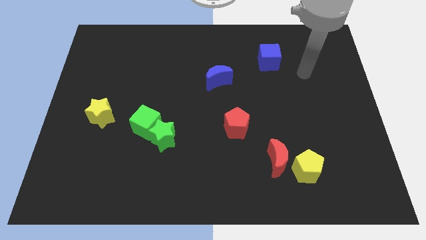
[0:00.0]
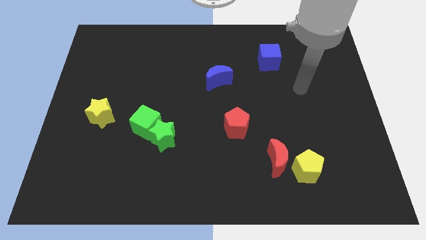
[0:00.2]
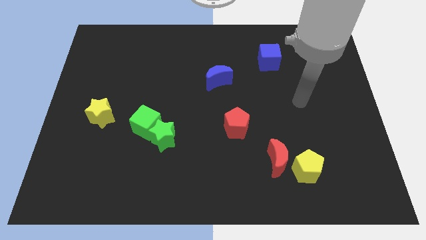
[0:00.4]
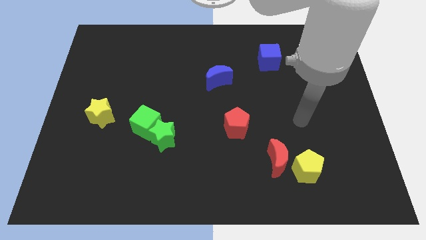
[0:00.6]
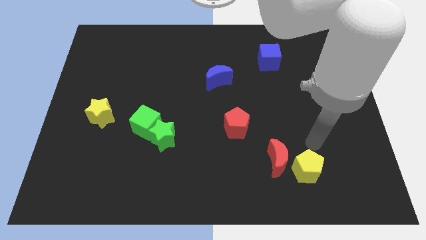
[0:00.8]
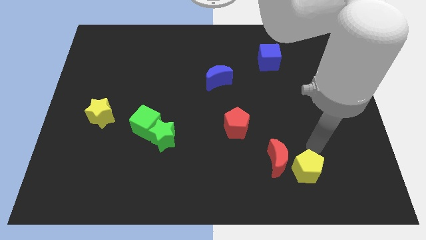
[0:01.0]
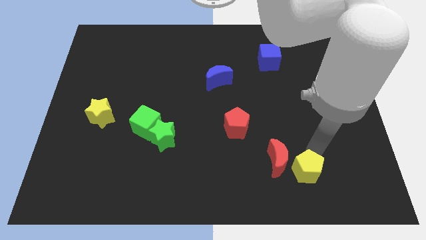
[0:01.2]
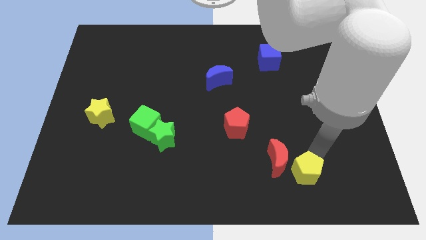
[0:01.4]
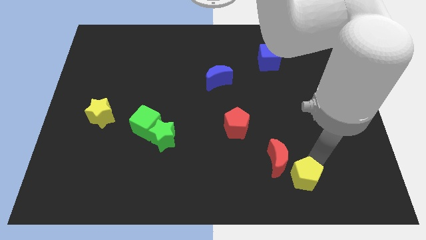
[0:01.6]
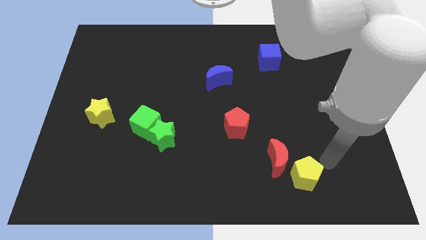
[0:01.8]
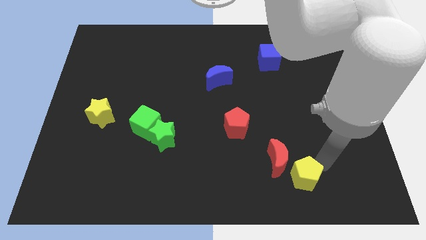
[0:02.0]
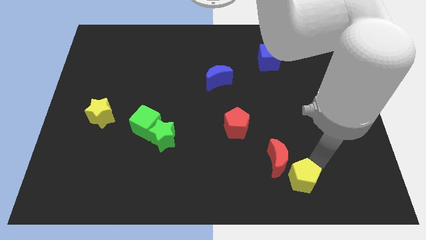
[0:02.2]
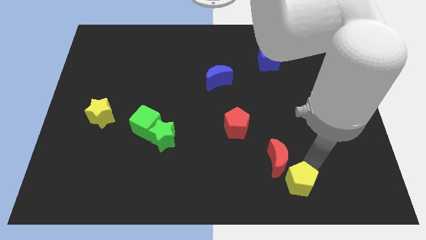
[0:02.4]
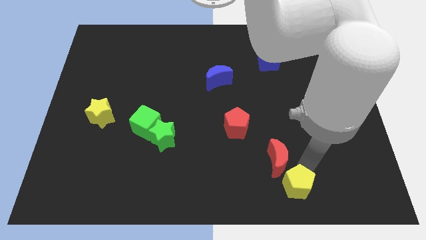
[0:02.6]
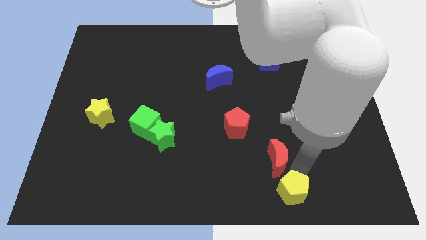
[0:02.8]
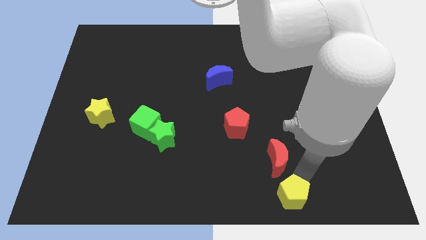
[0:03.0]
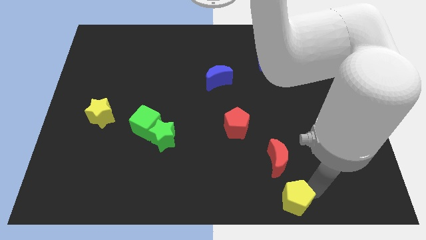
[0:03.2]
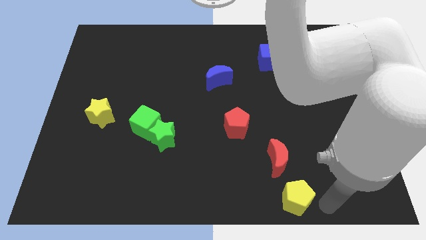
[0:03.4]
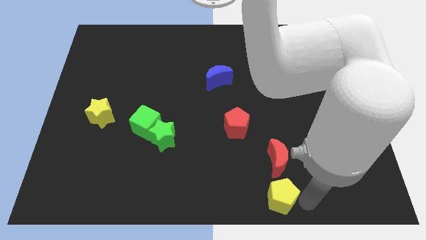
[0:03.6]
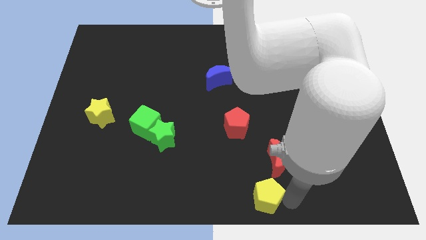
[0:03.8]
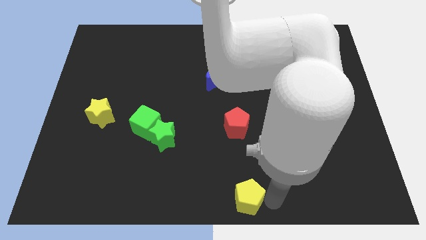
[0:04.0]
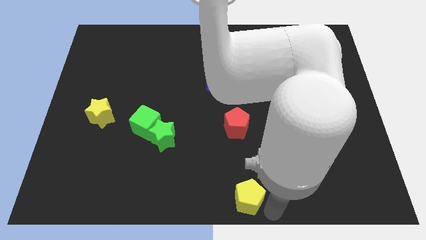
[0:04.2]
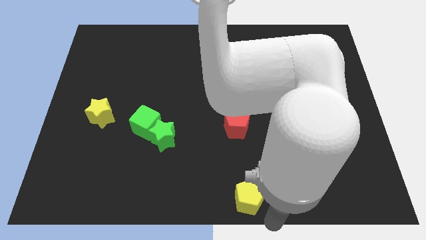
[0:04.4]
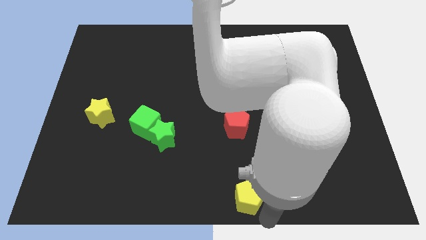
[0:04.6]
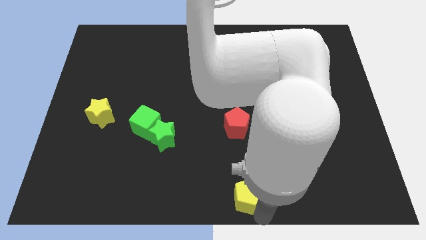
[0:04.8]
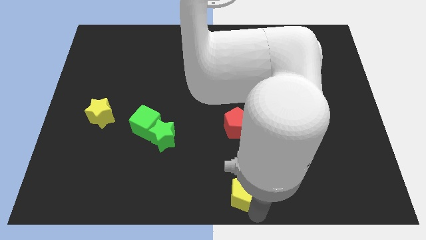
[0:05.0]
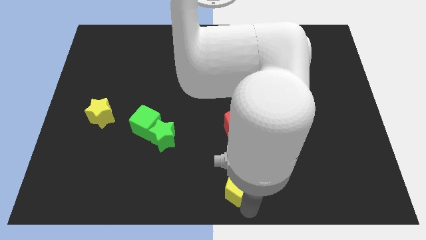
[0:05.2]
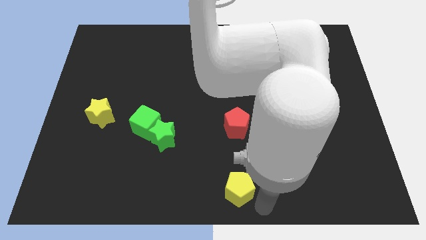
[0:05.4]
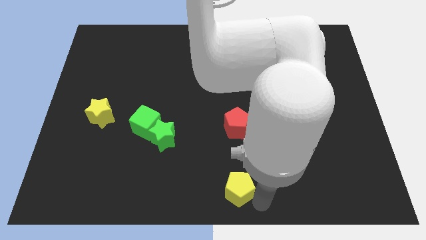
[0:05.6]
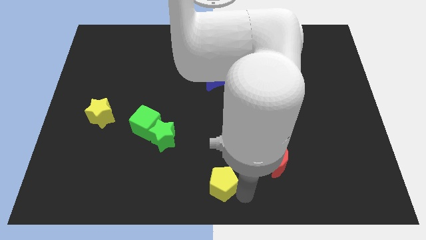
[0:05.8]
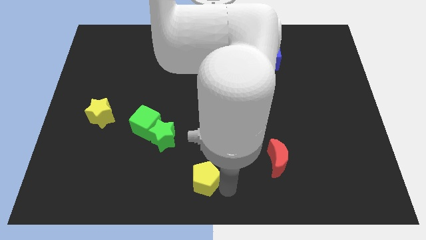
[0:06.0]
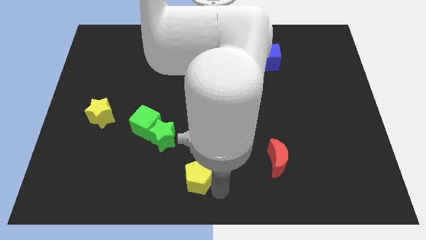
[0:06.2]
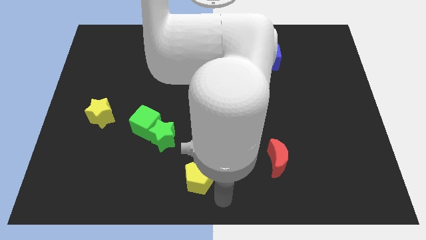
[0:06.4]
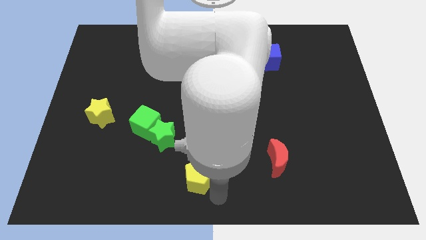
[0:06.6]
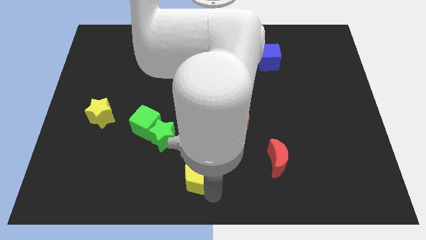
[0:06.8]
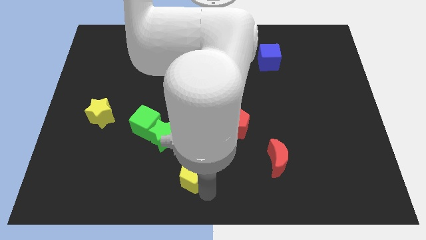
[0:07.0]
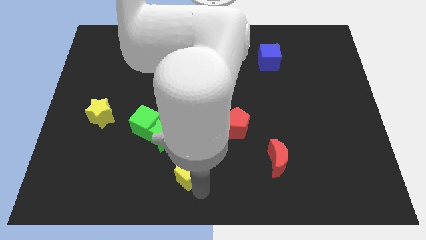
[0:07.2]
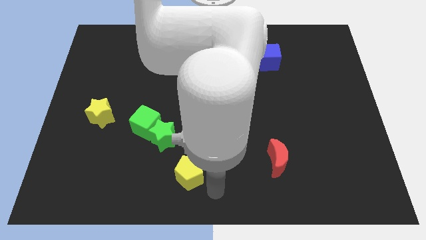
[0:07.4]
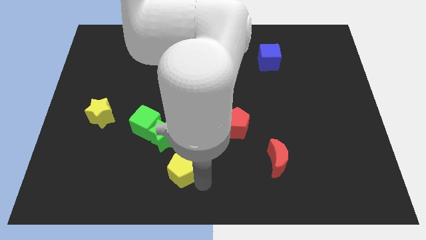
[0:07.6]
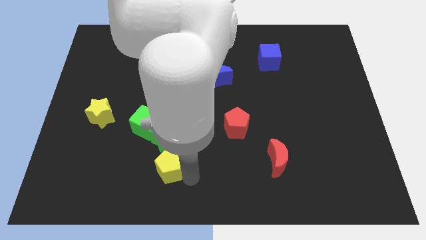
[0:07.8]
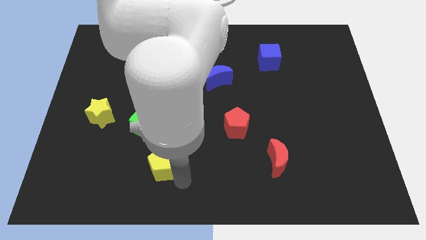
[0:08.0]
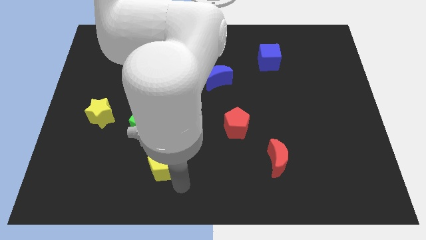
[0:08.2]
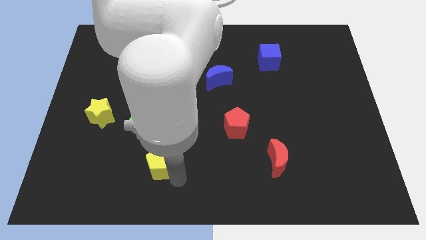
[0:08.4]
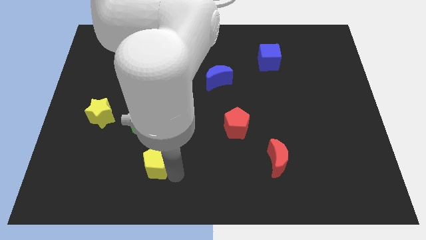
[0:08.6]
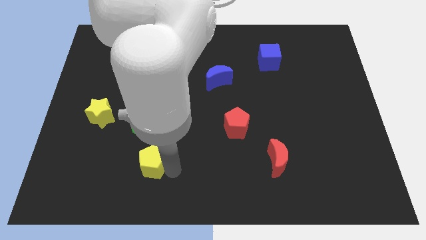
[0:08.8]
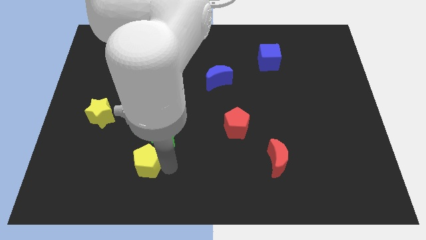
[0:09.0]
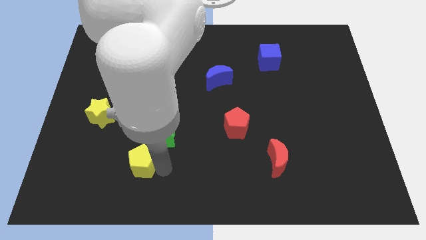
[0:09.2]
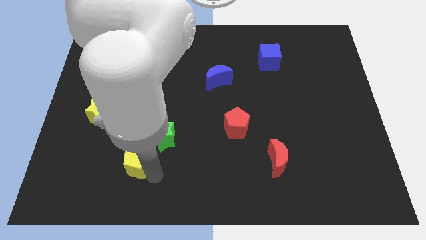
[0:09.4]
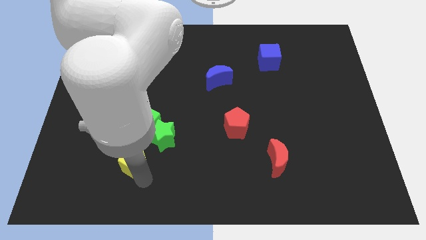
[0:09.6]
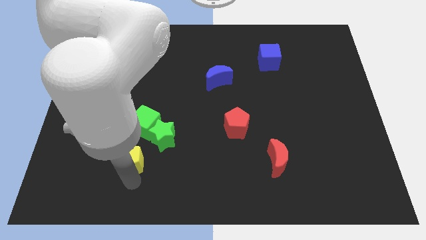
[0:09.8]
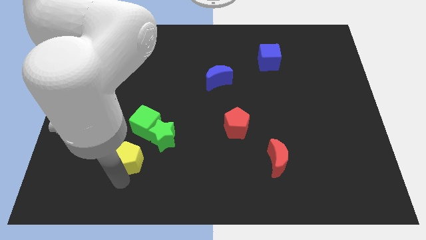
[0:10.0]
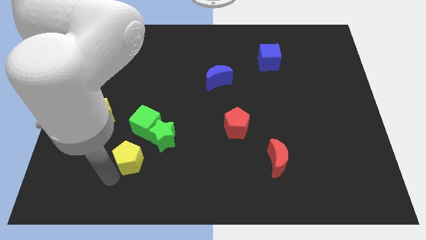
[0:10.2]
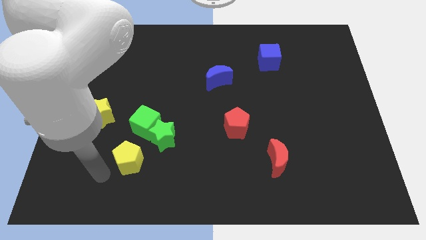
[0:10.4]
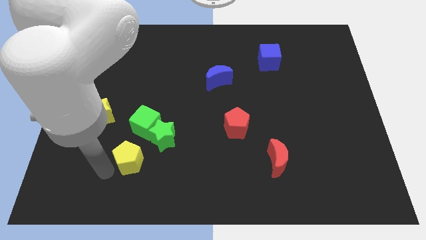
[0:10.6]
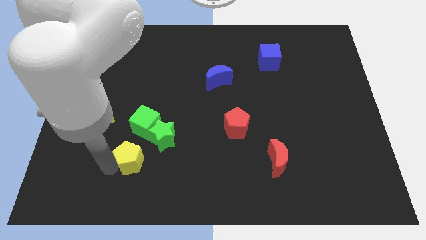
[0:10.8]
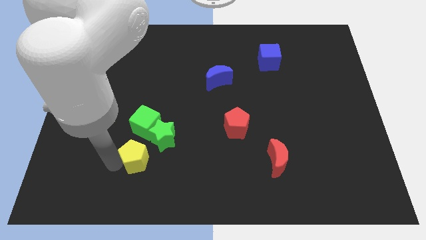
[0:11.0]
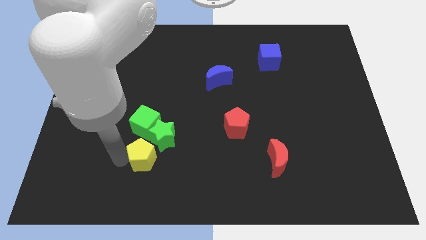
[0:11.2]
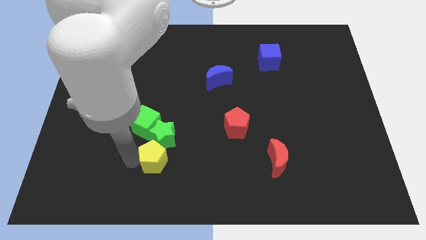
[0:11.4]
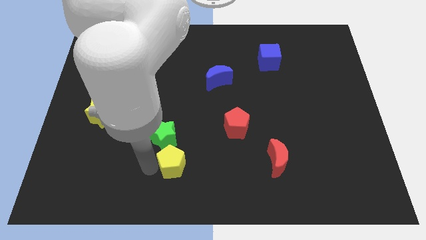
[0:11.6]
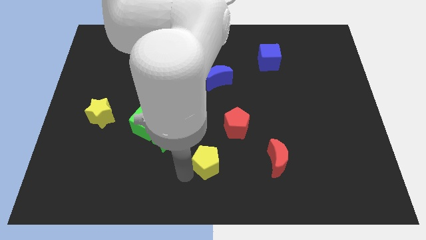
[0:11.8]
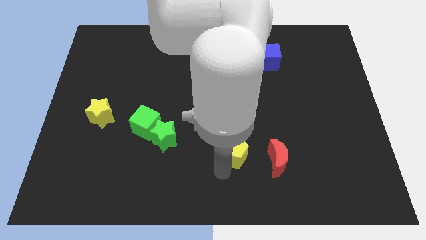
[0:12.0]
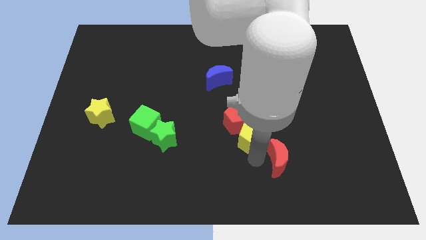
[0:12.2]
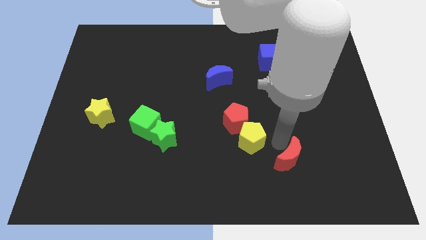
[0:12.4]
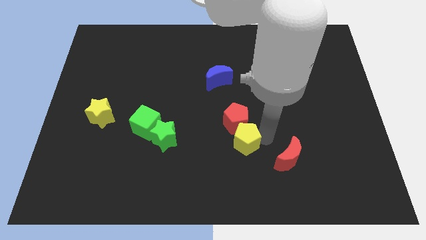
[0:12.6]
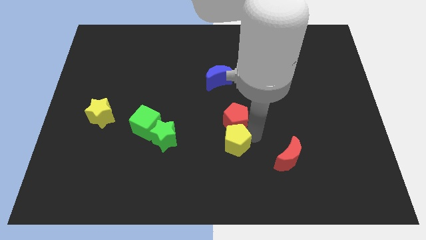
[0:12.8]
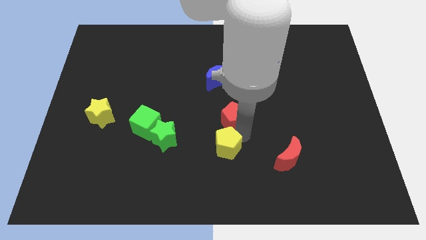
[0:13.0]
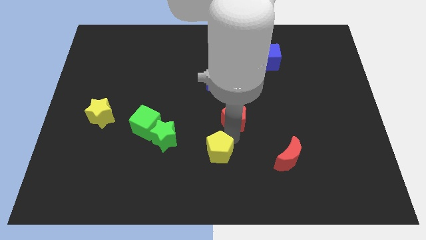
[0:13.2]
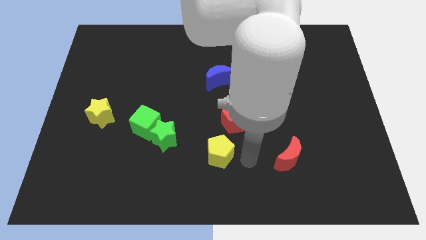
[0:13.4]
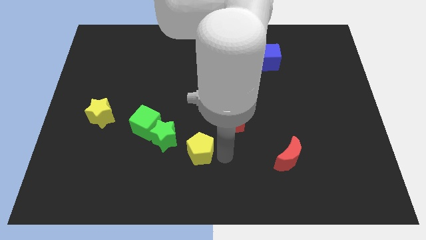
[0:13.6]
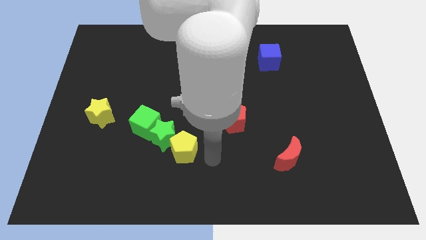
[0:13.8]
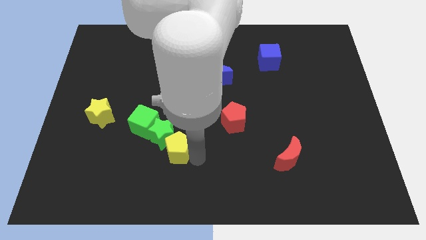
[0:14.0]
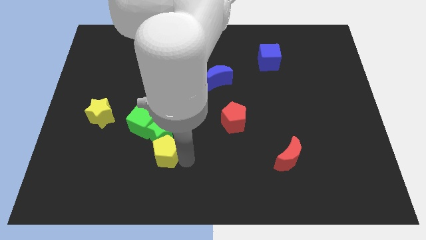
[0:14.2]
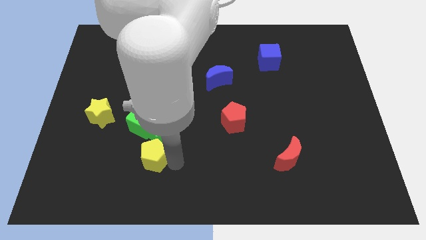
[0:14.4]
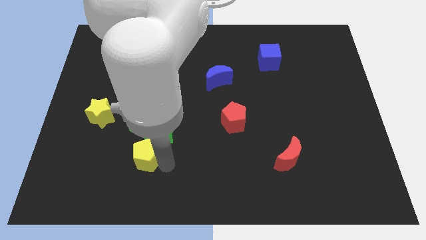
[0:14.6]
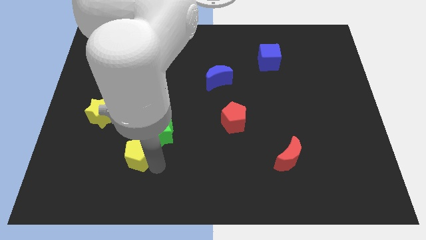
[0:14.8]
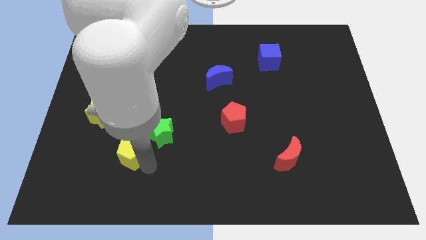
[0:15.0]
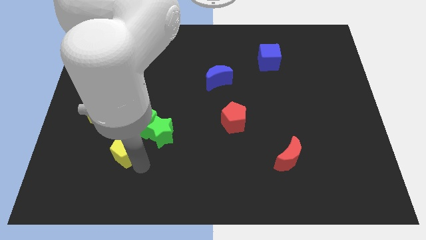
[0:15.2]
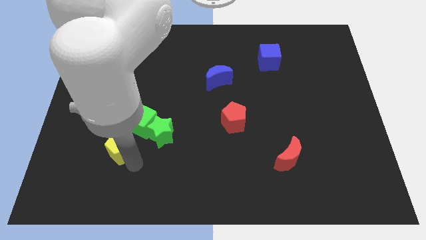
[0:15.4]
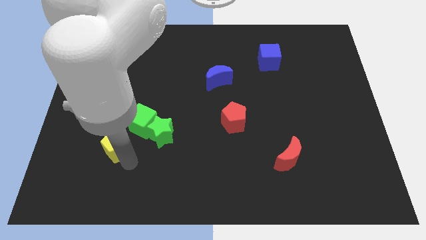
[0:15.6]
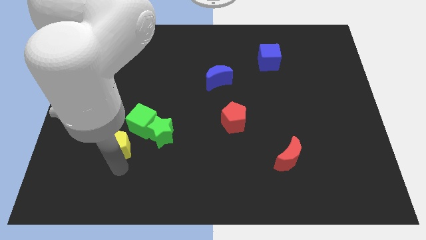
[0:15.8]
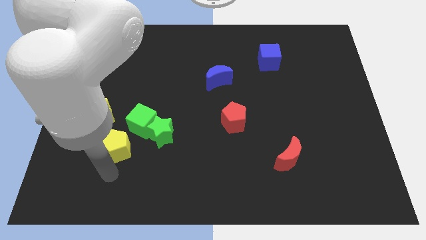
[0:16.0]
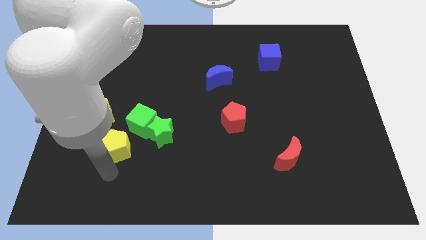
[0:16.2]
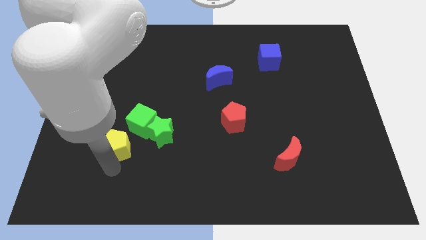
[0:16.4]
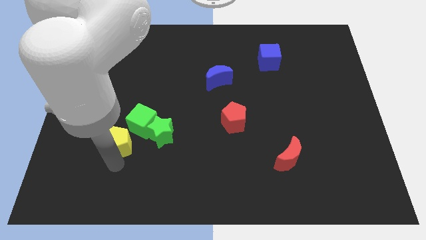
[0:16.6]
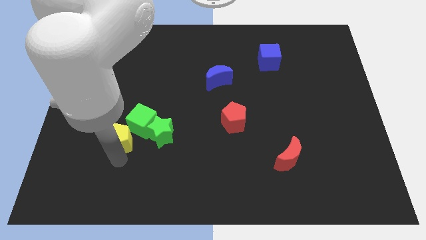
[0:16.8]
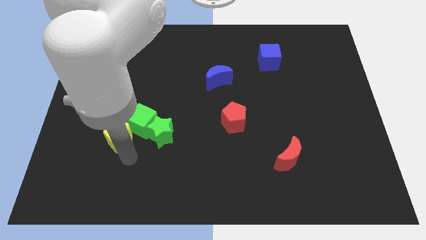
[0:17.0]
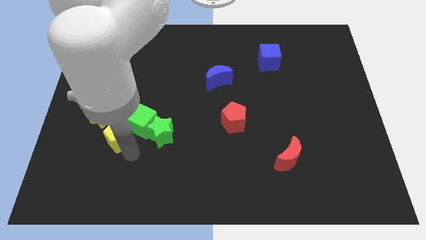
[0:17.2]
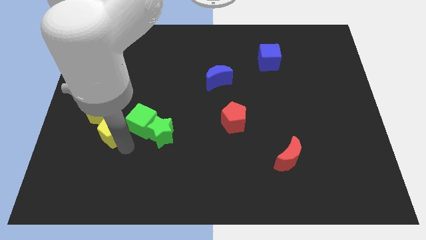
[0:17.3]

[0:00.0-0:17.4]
push the yellow pentagon towards the yellow star
